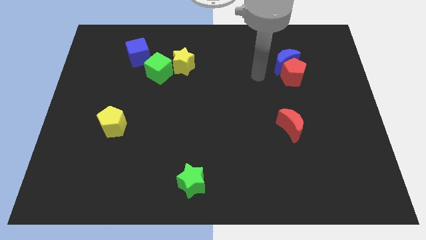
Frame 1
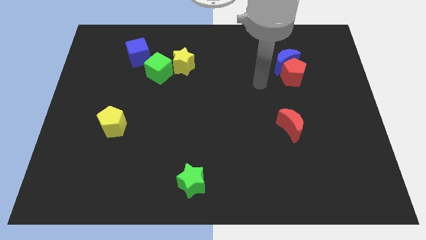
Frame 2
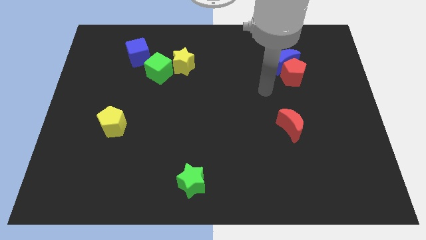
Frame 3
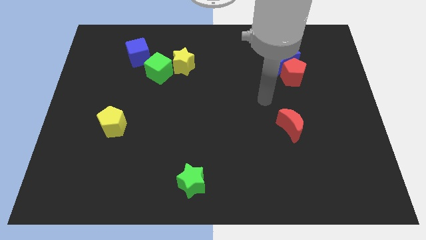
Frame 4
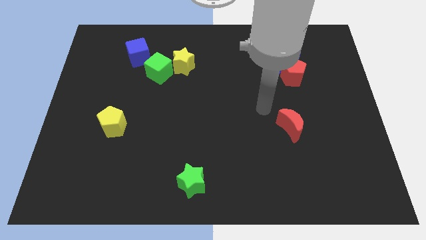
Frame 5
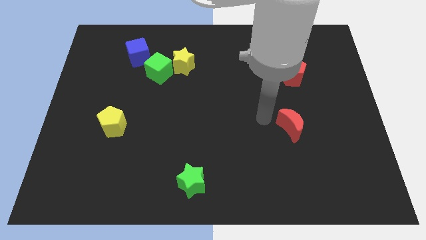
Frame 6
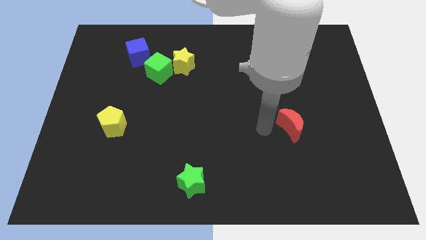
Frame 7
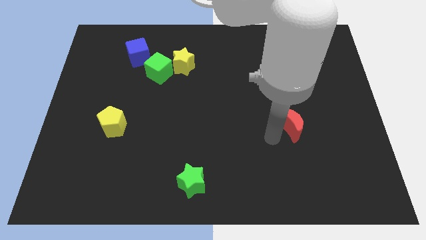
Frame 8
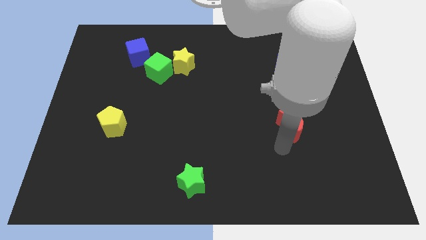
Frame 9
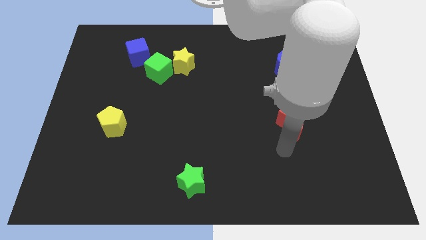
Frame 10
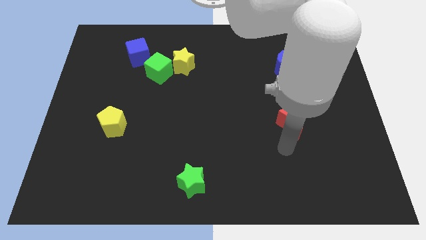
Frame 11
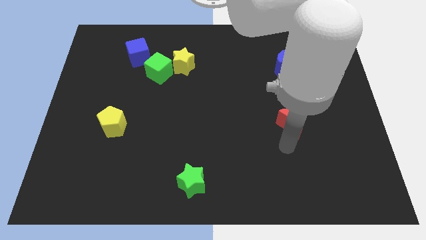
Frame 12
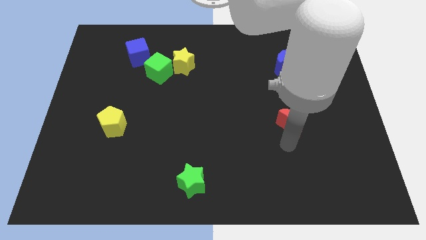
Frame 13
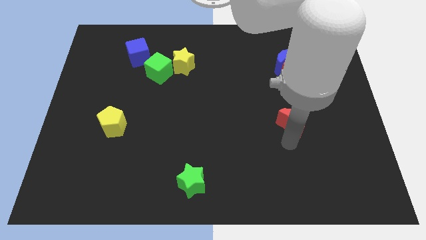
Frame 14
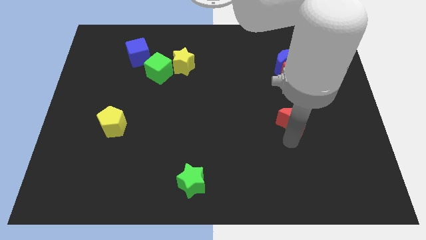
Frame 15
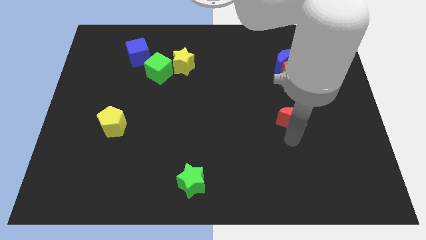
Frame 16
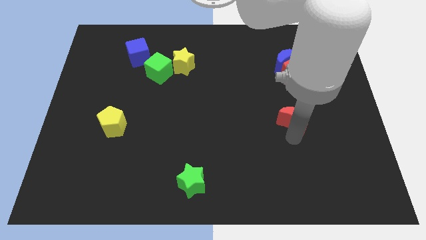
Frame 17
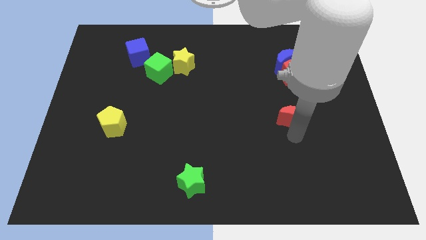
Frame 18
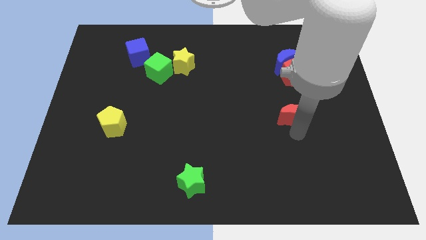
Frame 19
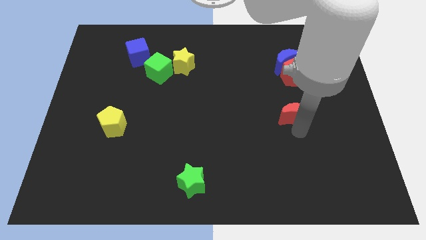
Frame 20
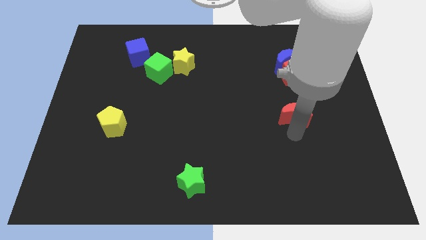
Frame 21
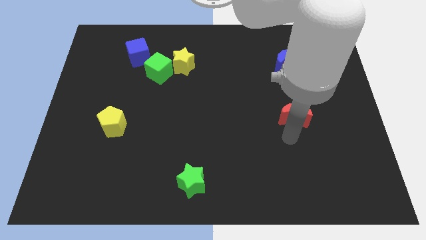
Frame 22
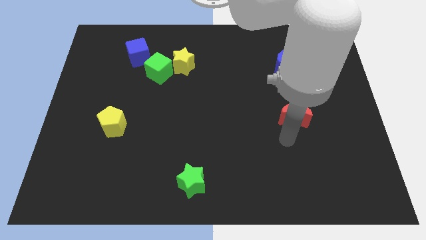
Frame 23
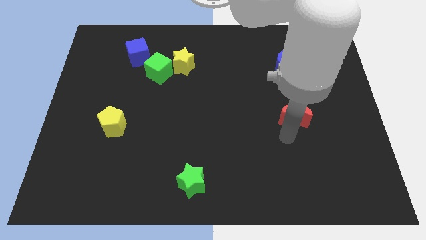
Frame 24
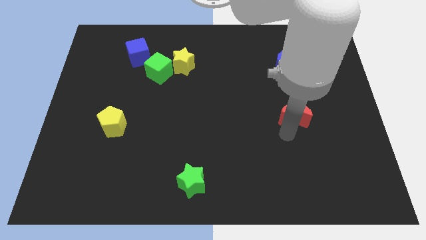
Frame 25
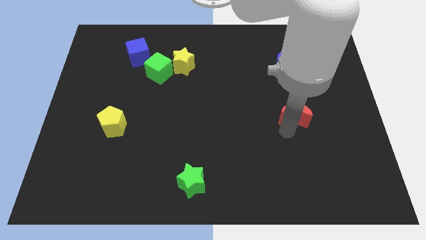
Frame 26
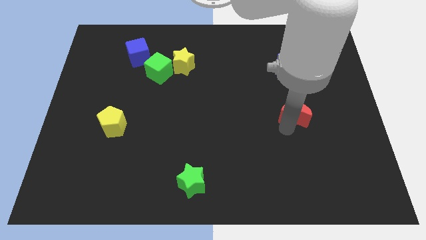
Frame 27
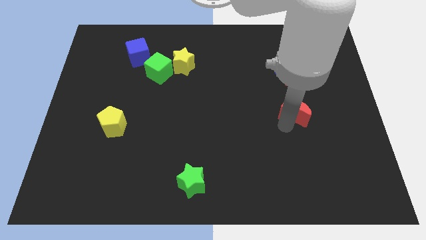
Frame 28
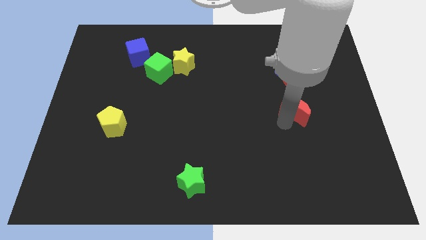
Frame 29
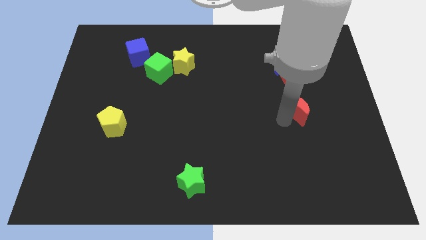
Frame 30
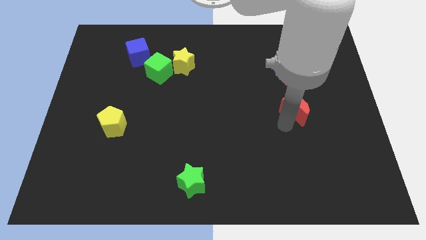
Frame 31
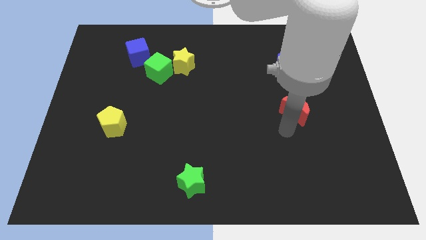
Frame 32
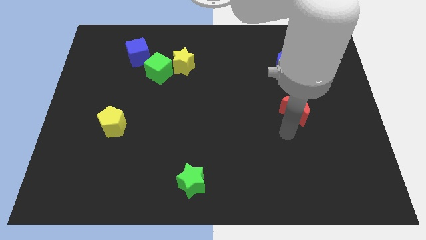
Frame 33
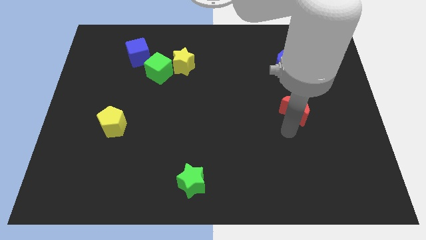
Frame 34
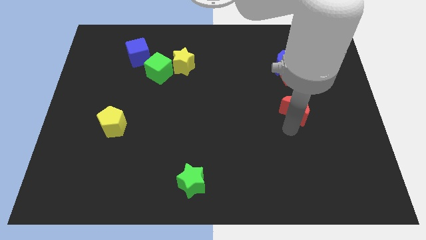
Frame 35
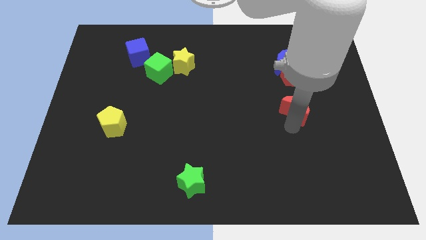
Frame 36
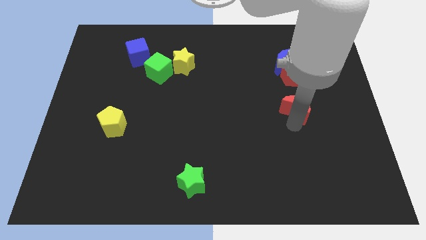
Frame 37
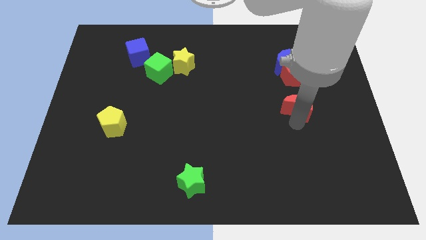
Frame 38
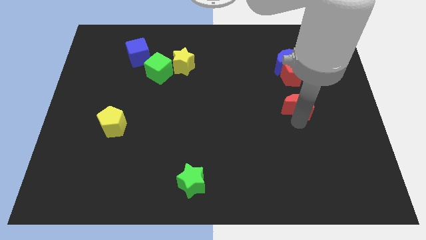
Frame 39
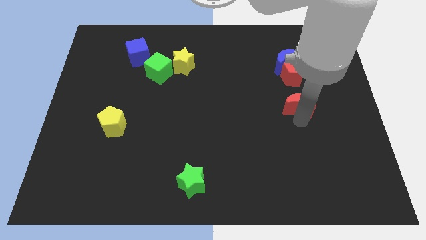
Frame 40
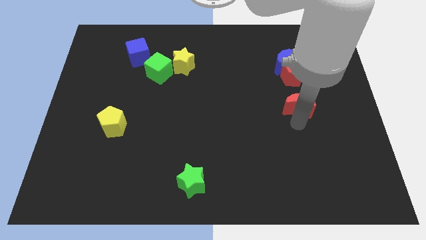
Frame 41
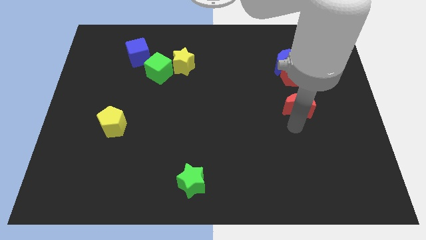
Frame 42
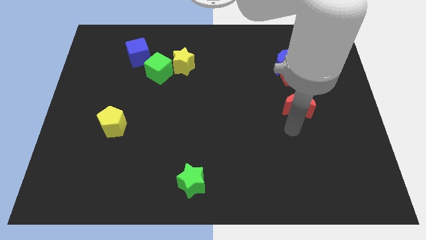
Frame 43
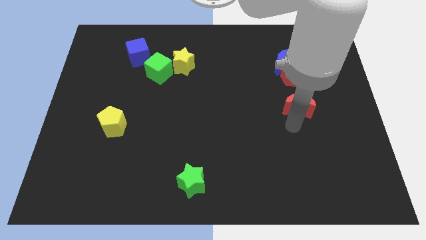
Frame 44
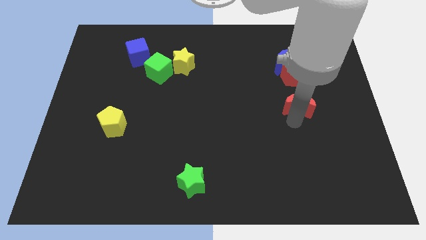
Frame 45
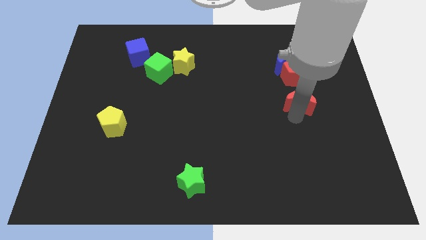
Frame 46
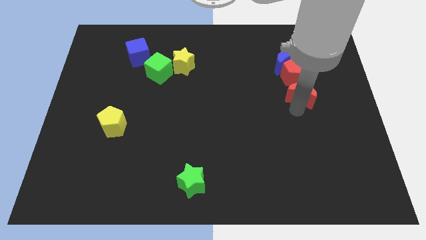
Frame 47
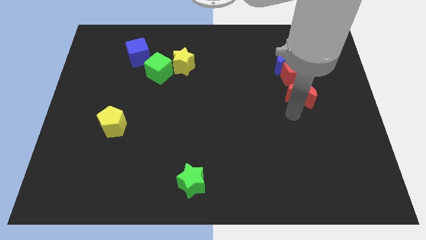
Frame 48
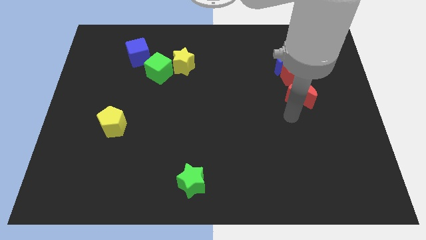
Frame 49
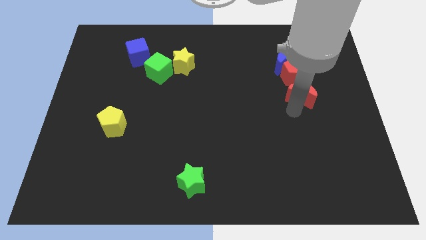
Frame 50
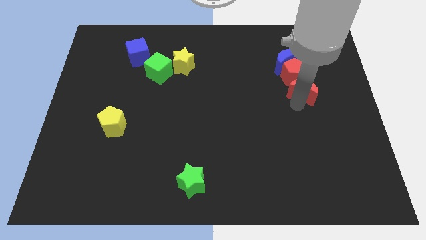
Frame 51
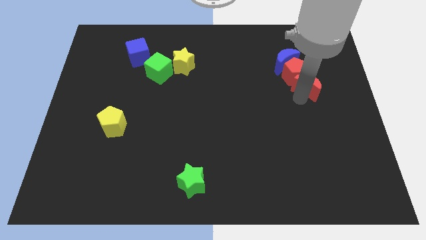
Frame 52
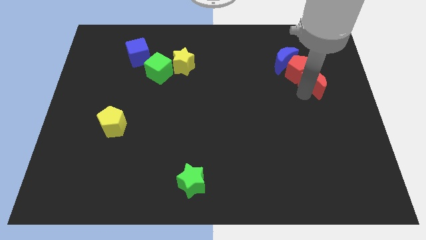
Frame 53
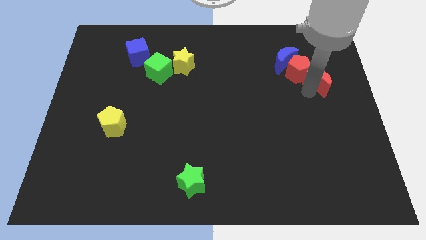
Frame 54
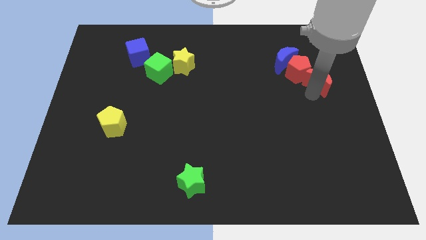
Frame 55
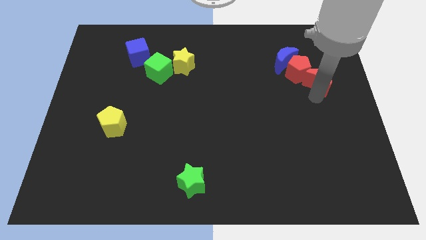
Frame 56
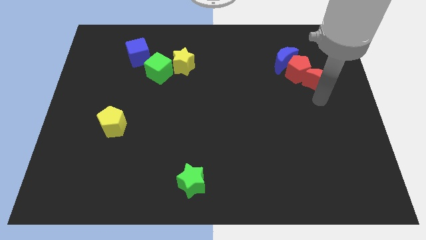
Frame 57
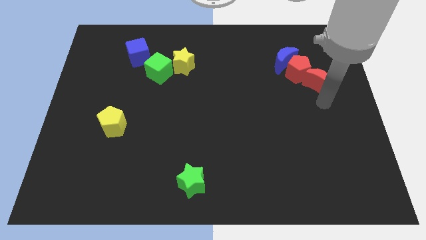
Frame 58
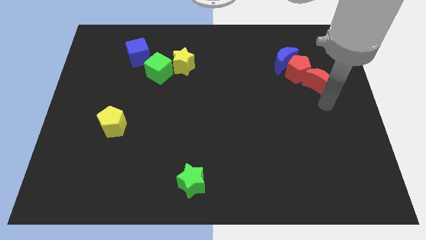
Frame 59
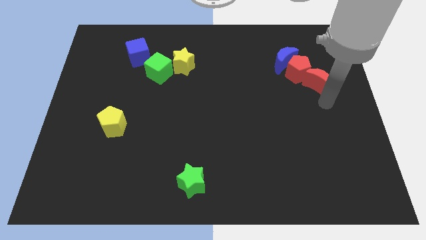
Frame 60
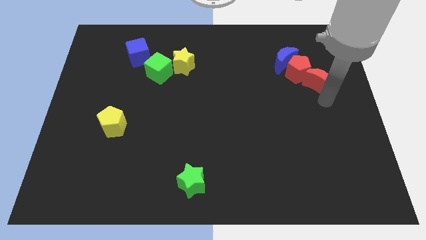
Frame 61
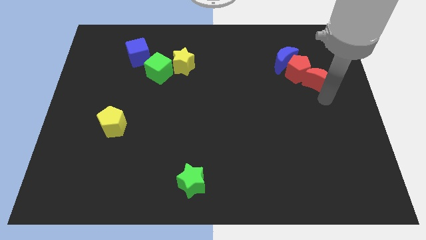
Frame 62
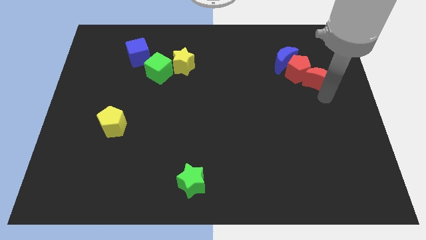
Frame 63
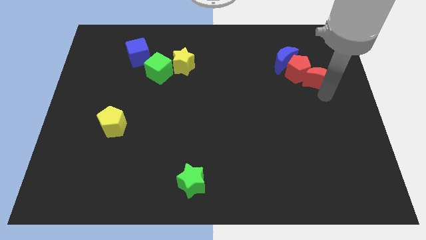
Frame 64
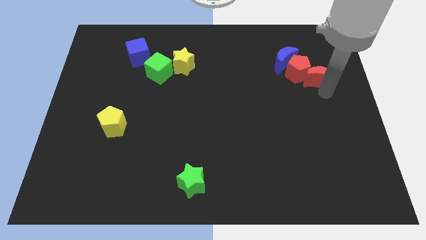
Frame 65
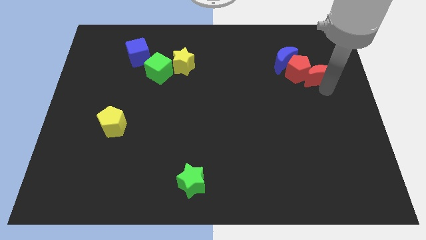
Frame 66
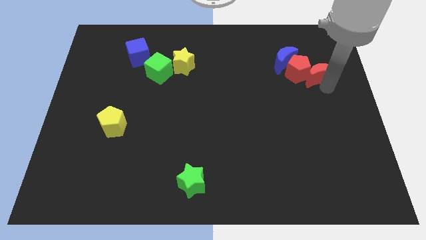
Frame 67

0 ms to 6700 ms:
slide the red moon to the top right side of the red pentagon

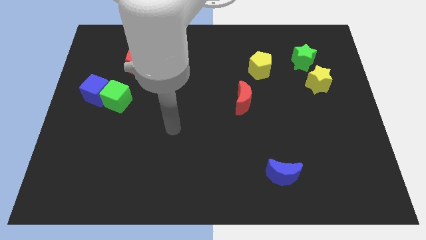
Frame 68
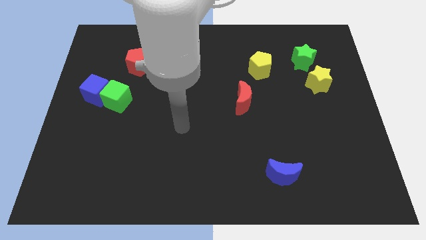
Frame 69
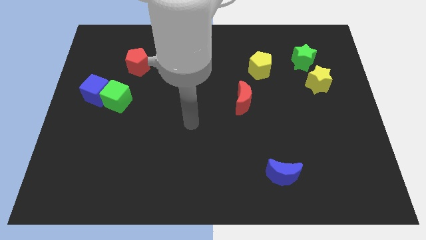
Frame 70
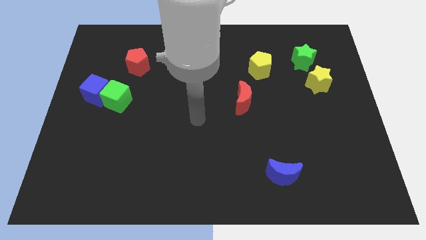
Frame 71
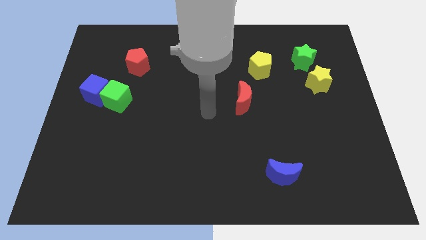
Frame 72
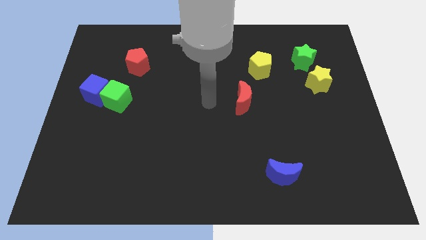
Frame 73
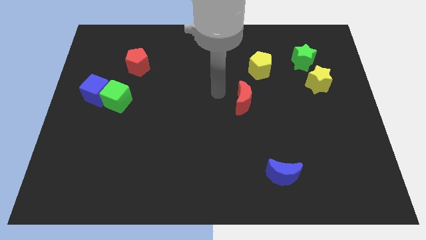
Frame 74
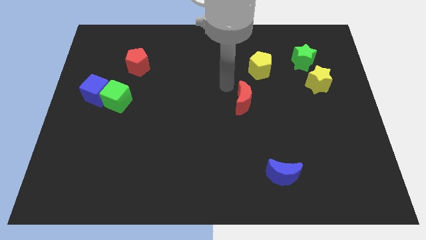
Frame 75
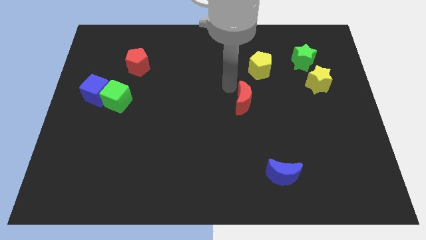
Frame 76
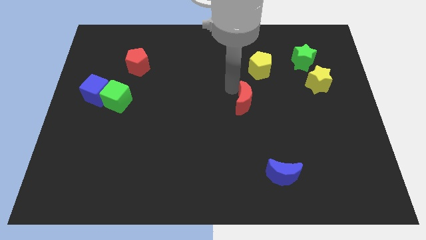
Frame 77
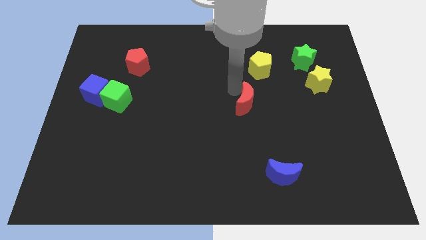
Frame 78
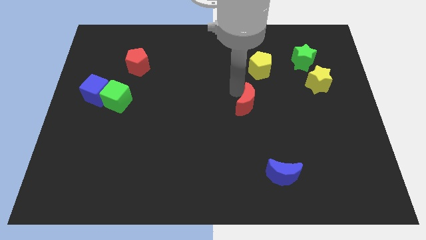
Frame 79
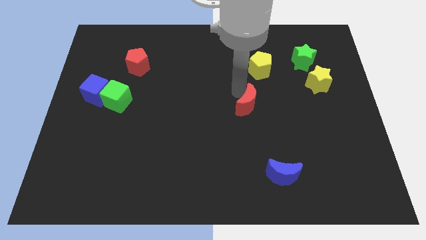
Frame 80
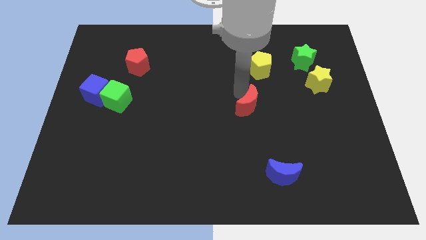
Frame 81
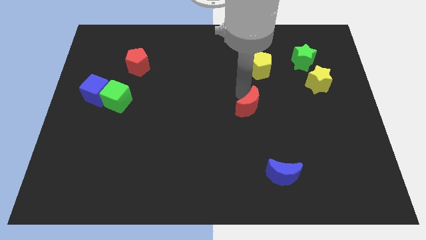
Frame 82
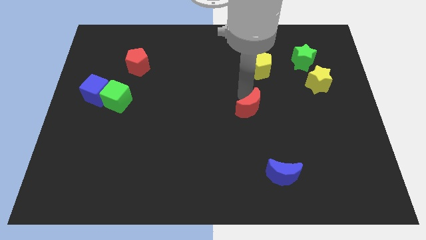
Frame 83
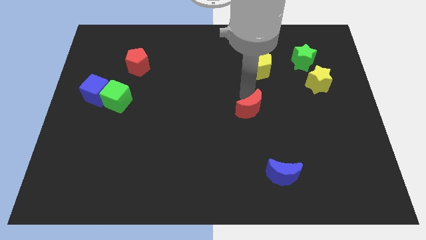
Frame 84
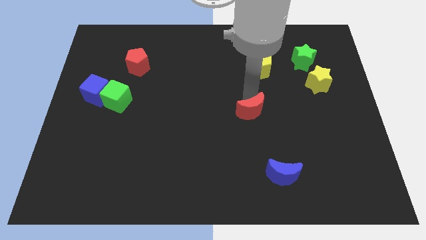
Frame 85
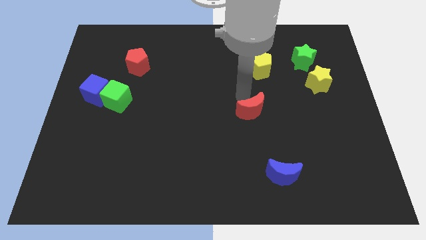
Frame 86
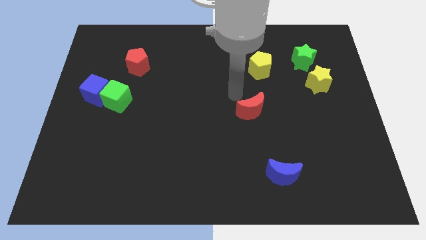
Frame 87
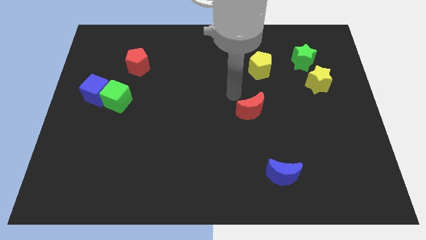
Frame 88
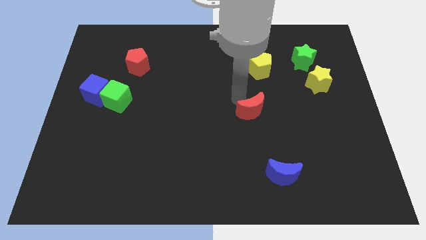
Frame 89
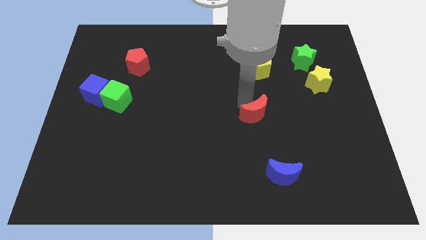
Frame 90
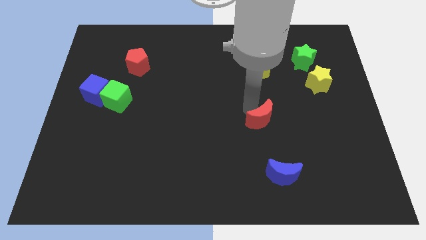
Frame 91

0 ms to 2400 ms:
put the red moon to the top of the blue moon
